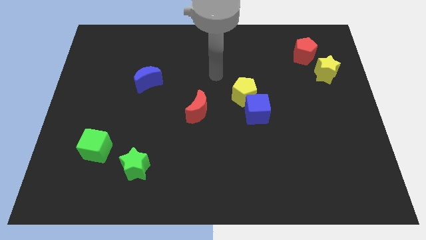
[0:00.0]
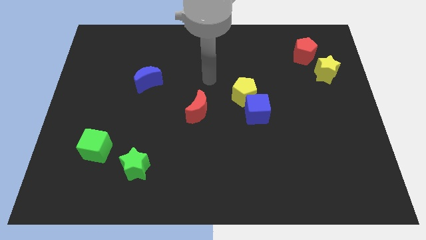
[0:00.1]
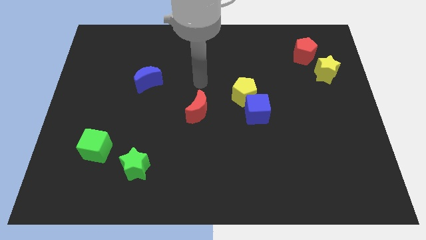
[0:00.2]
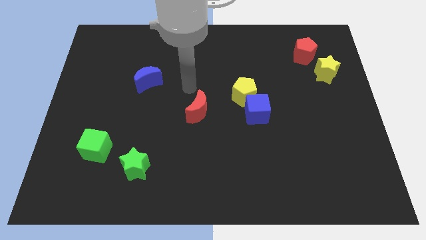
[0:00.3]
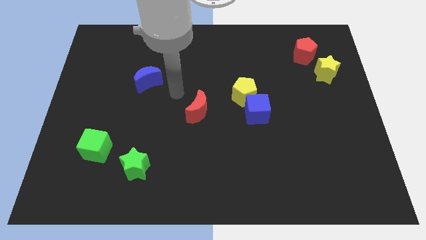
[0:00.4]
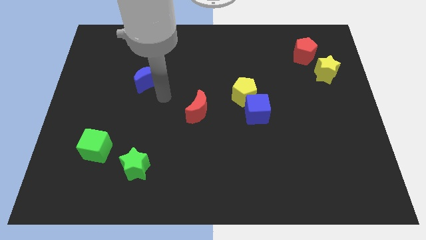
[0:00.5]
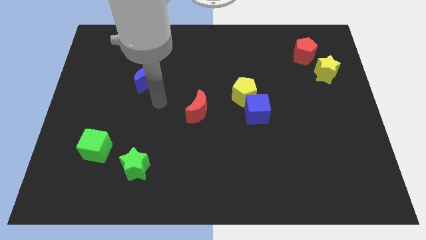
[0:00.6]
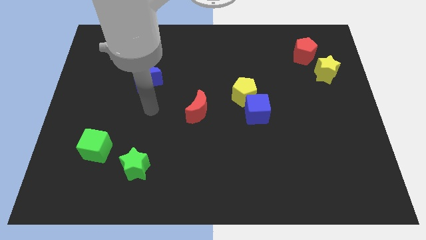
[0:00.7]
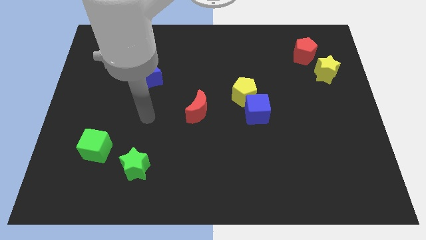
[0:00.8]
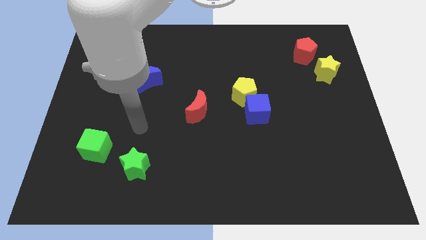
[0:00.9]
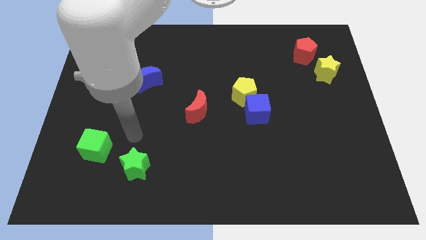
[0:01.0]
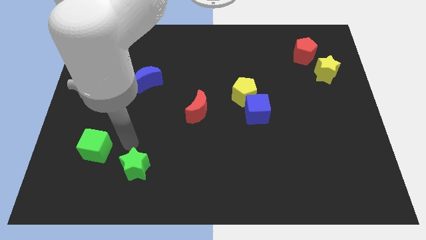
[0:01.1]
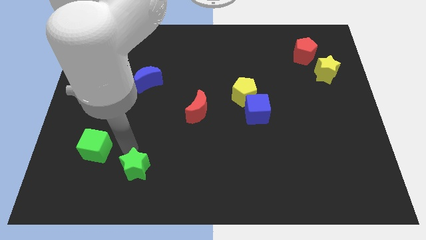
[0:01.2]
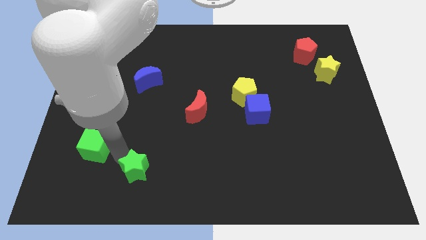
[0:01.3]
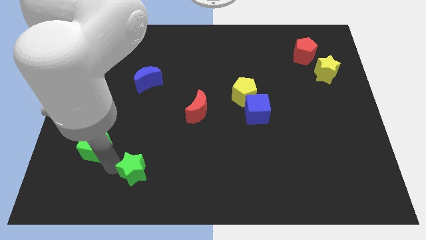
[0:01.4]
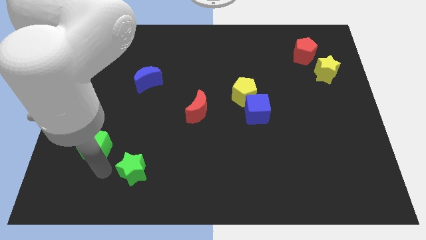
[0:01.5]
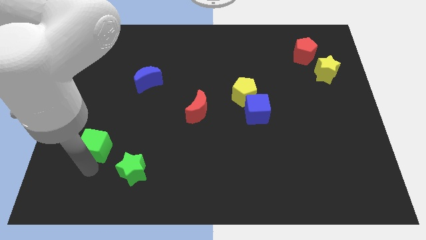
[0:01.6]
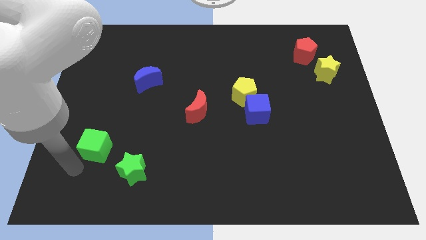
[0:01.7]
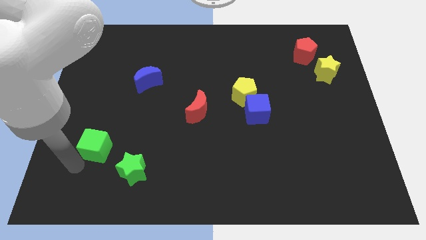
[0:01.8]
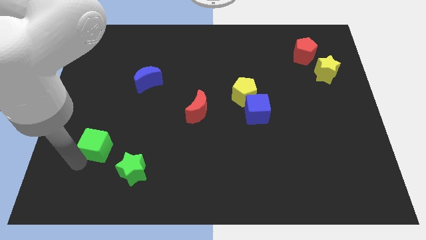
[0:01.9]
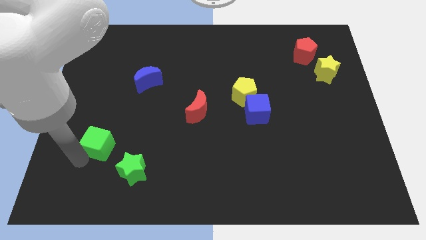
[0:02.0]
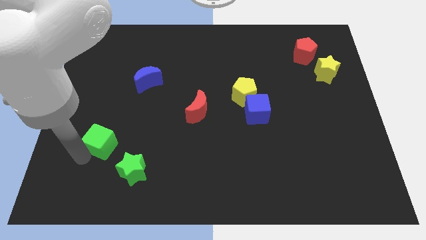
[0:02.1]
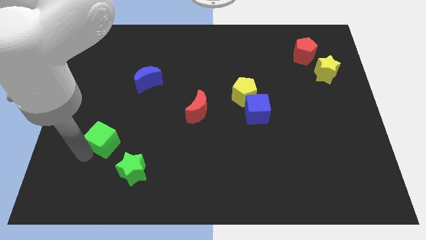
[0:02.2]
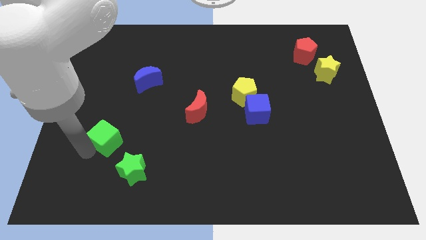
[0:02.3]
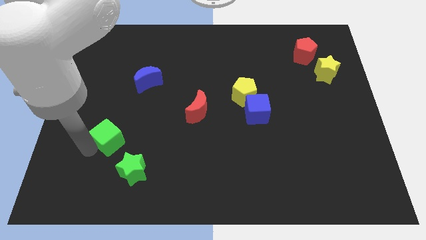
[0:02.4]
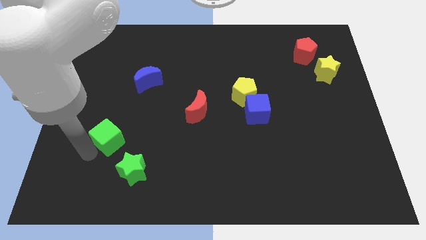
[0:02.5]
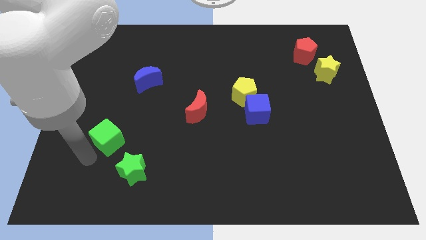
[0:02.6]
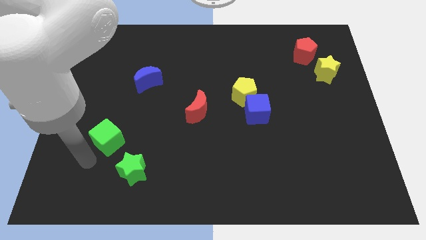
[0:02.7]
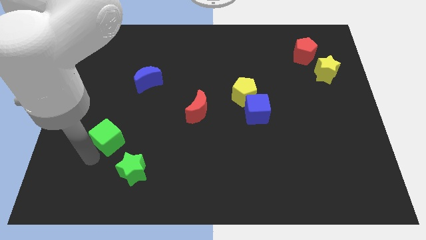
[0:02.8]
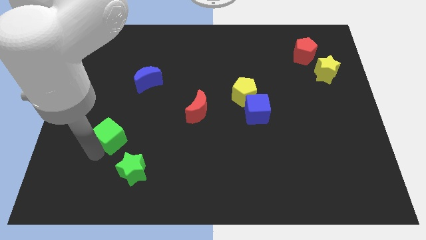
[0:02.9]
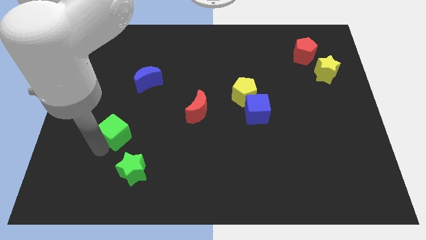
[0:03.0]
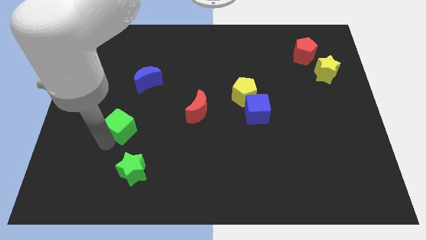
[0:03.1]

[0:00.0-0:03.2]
slightly push the green cube up and to the right

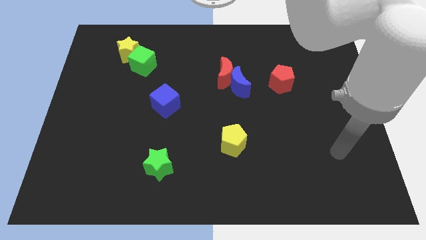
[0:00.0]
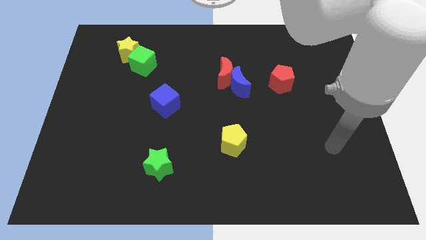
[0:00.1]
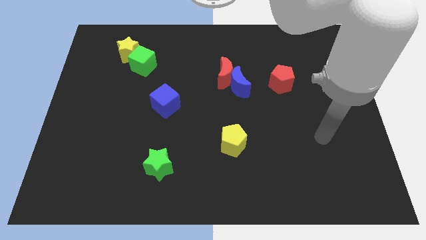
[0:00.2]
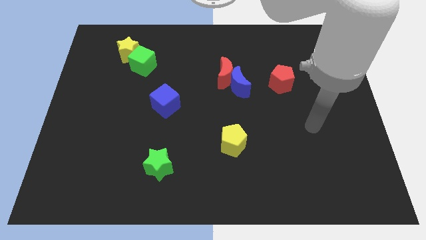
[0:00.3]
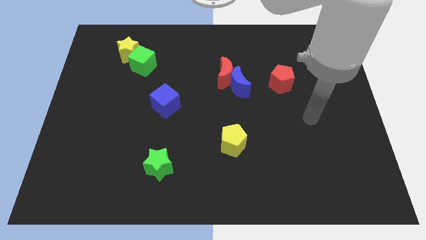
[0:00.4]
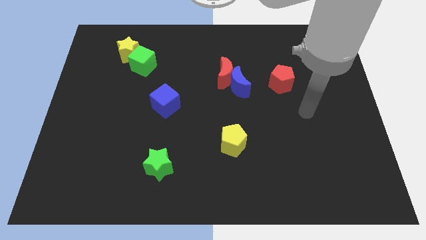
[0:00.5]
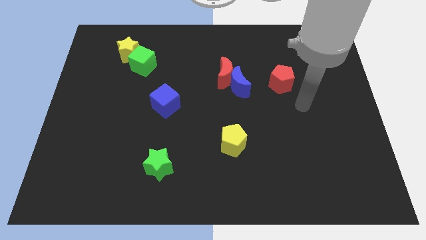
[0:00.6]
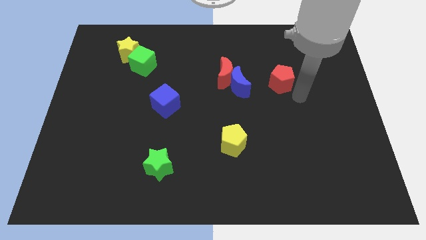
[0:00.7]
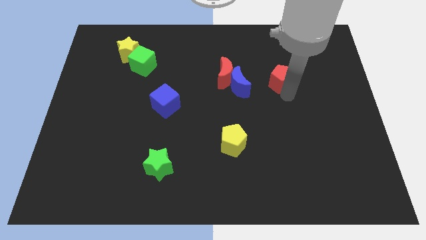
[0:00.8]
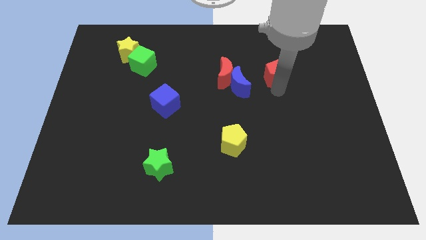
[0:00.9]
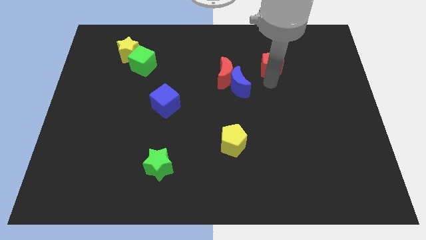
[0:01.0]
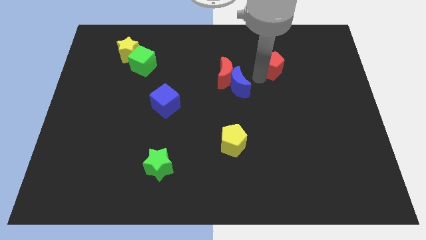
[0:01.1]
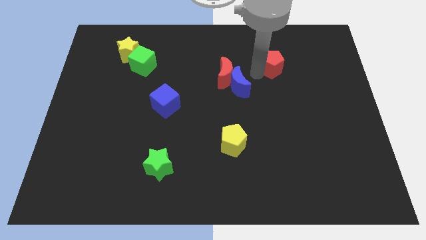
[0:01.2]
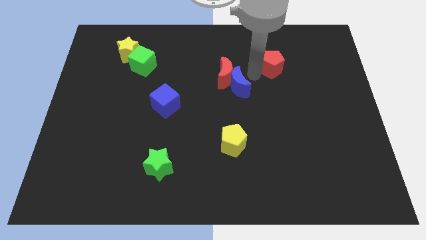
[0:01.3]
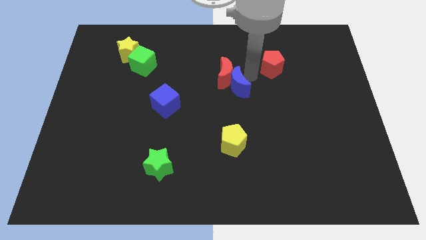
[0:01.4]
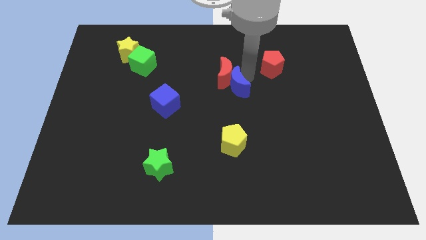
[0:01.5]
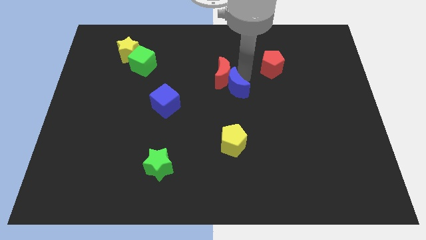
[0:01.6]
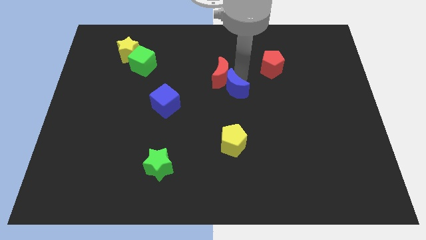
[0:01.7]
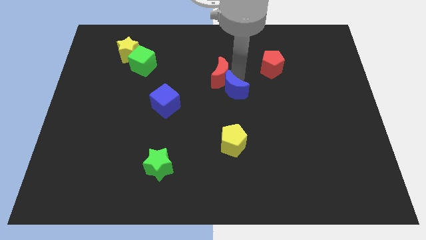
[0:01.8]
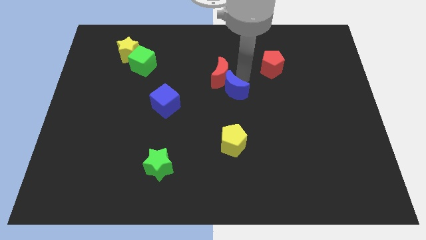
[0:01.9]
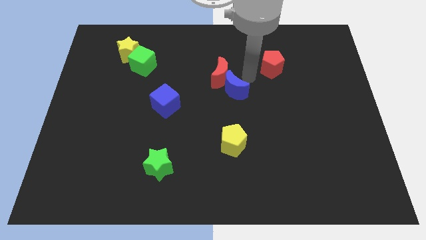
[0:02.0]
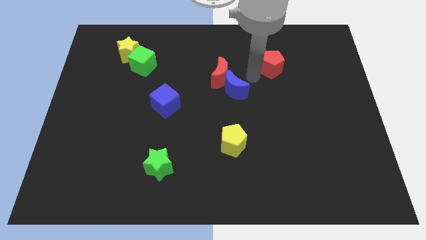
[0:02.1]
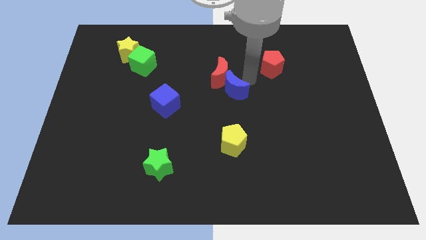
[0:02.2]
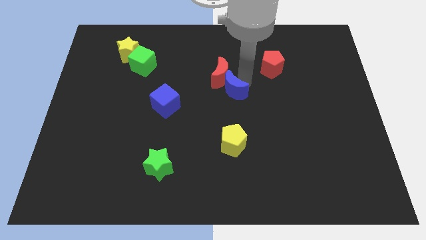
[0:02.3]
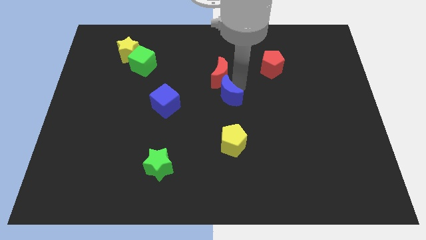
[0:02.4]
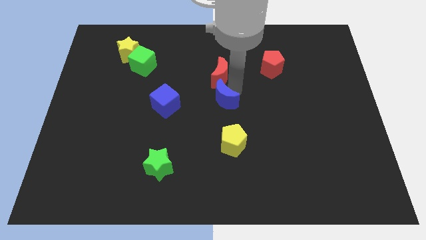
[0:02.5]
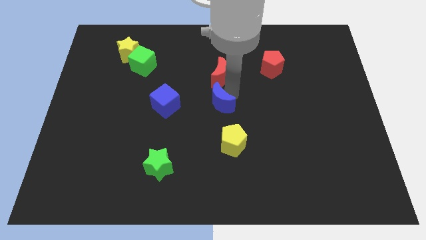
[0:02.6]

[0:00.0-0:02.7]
slightly push the blue moon down and to the left

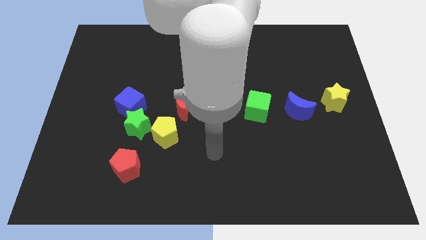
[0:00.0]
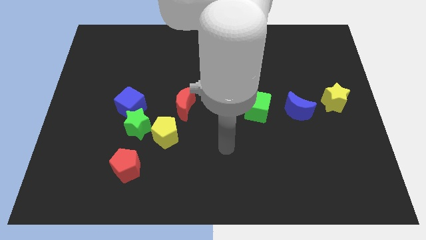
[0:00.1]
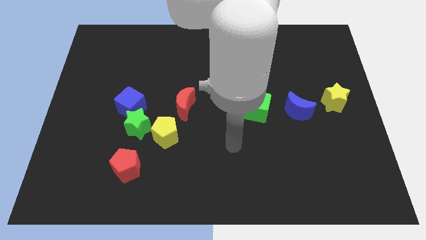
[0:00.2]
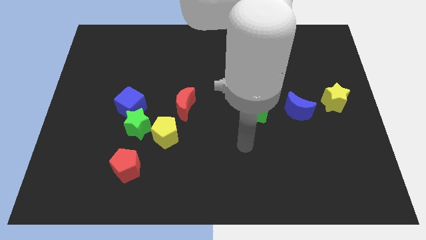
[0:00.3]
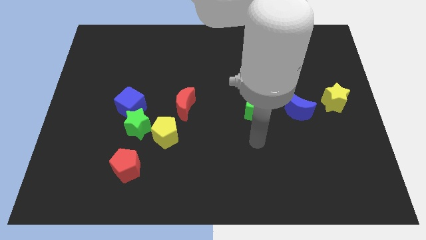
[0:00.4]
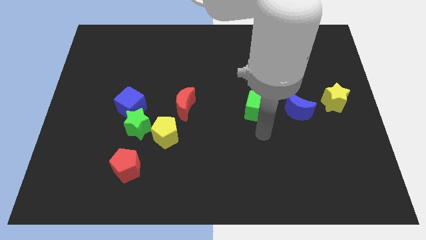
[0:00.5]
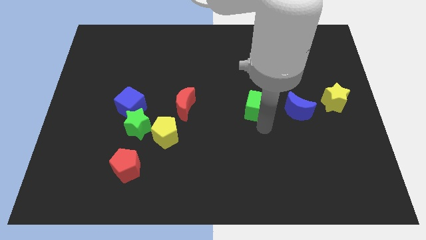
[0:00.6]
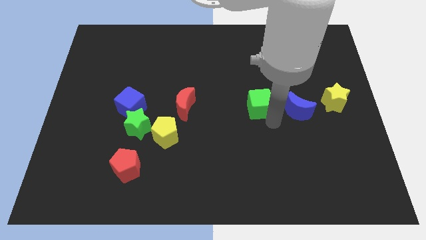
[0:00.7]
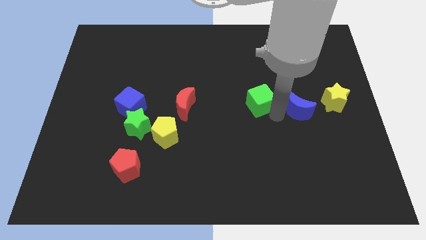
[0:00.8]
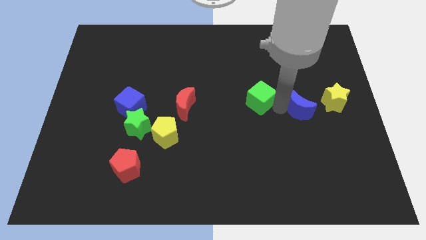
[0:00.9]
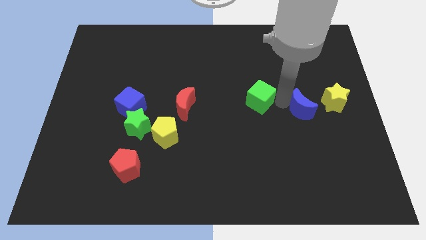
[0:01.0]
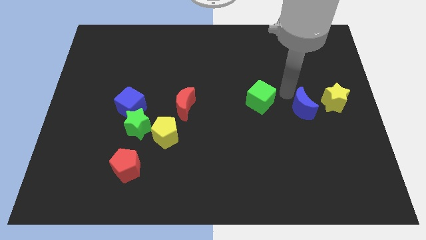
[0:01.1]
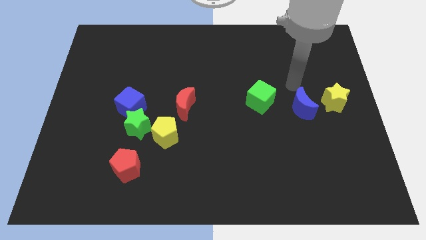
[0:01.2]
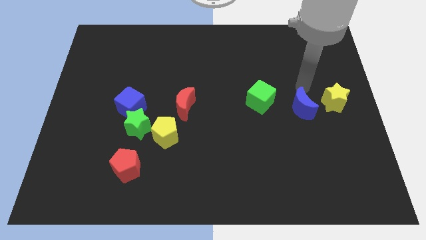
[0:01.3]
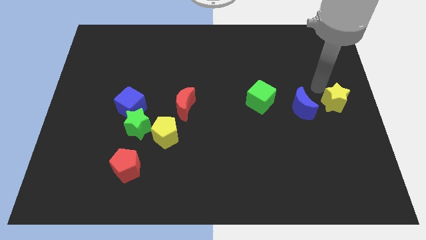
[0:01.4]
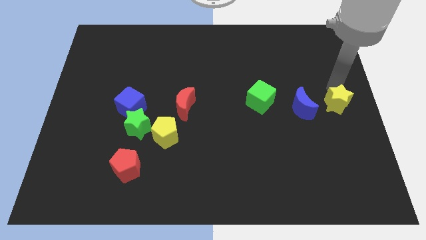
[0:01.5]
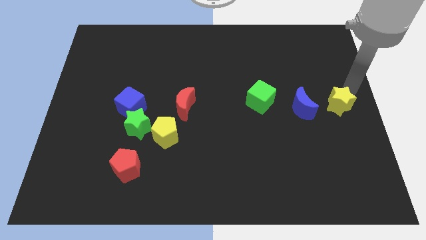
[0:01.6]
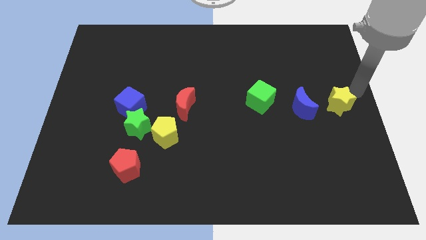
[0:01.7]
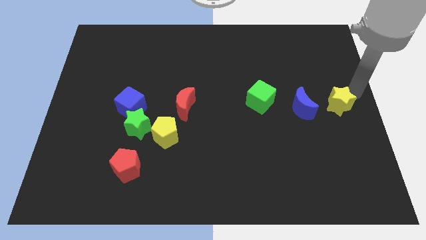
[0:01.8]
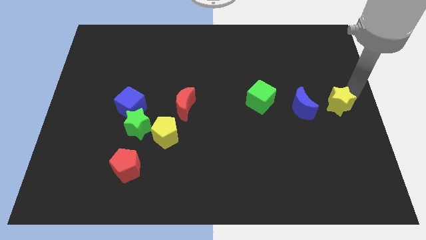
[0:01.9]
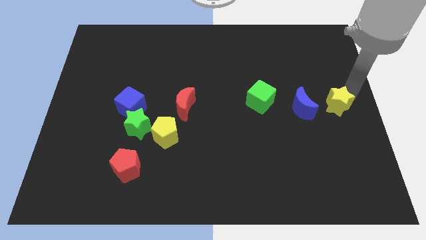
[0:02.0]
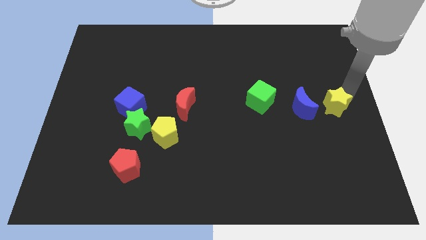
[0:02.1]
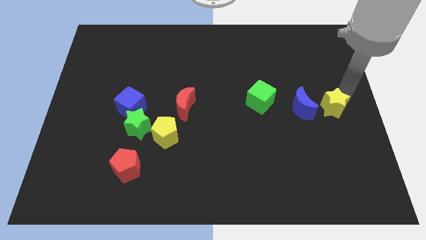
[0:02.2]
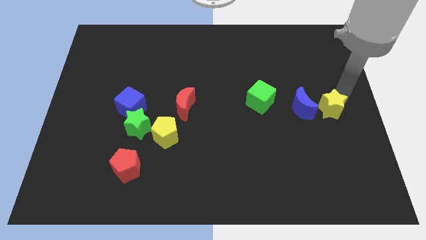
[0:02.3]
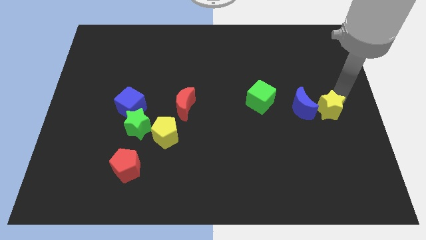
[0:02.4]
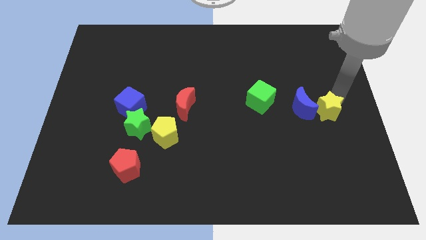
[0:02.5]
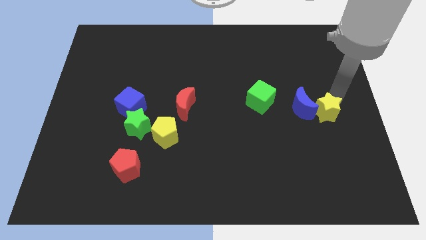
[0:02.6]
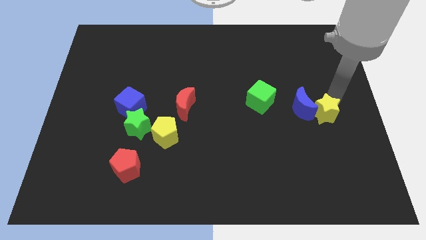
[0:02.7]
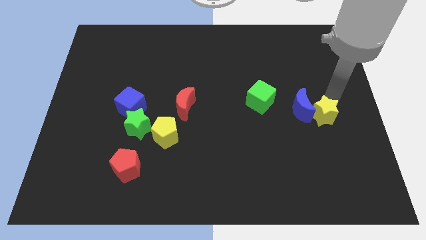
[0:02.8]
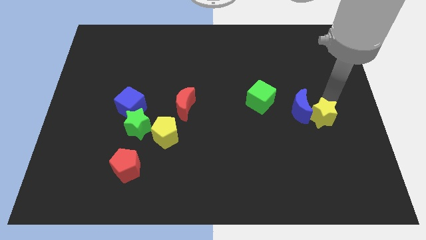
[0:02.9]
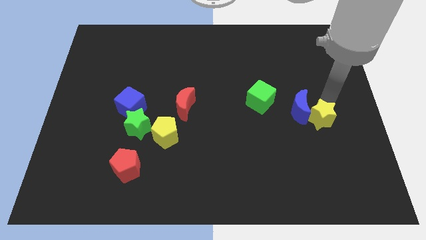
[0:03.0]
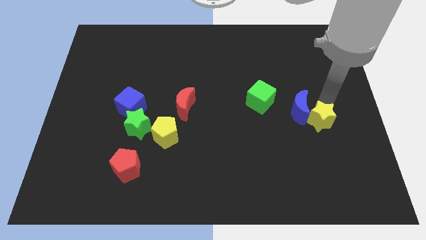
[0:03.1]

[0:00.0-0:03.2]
push the yellow star slightly diagonally down and left
